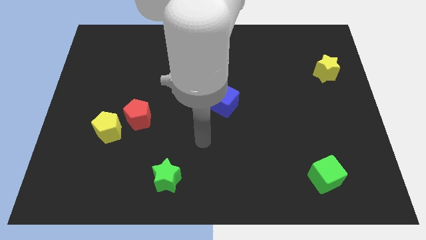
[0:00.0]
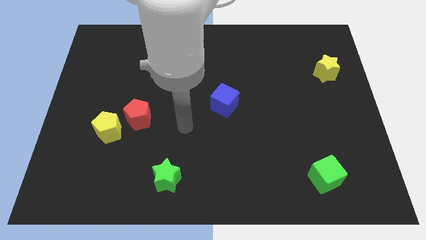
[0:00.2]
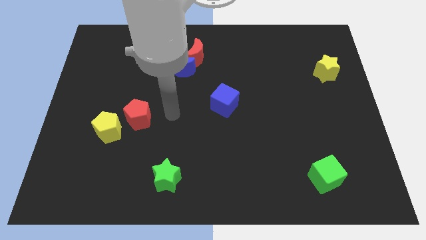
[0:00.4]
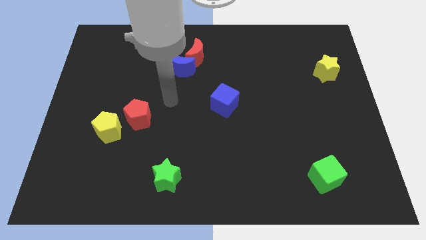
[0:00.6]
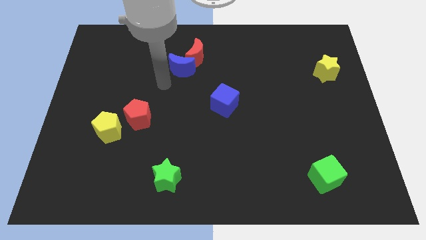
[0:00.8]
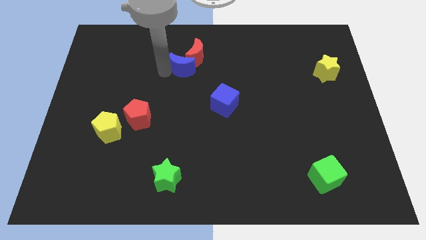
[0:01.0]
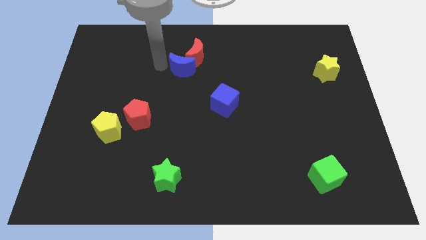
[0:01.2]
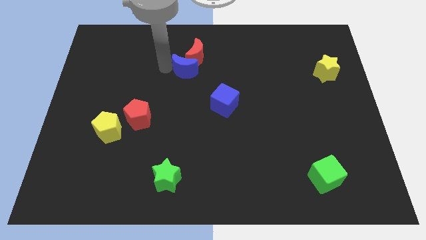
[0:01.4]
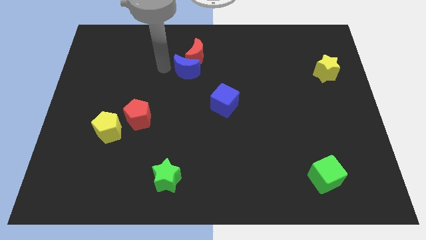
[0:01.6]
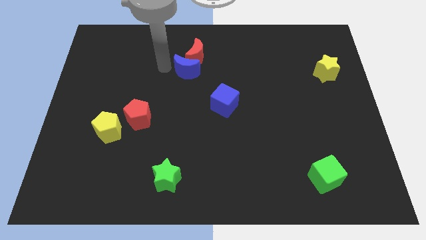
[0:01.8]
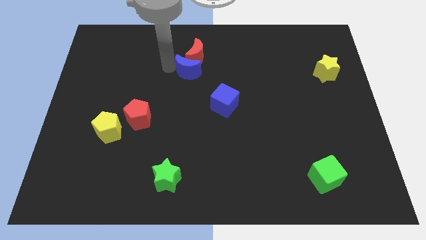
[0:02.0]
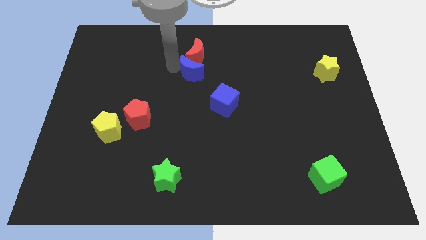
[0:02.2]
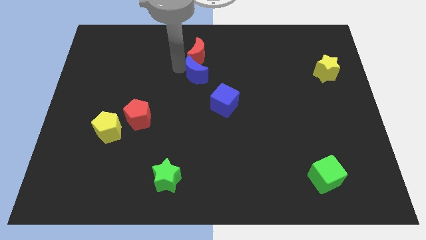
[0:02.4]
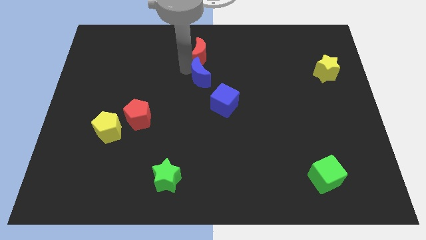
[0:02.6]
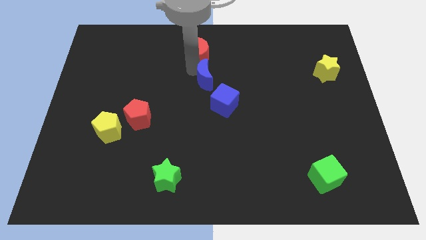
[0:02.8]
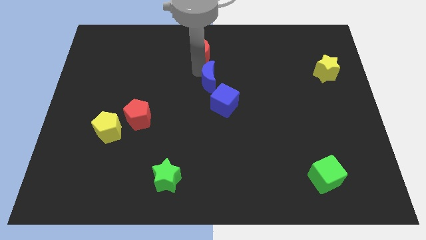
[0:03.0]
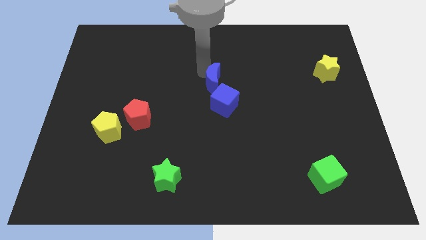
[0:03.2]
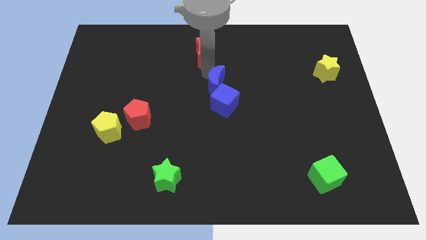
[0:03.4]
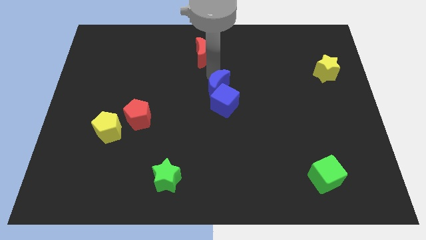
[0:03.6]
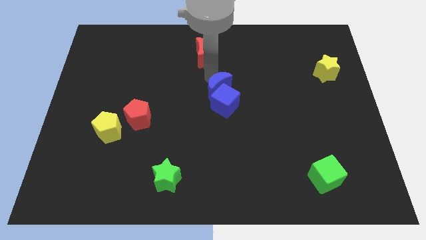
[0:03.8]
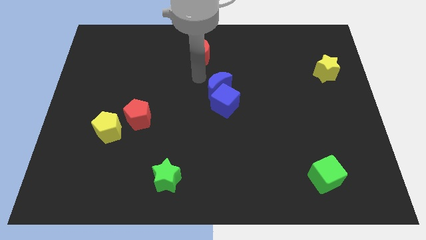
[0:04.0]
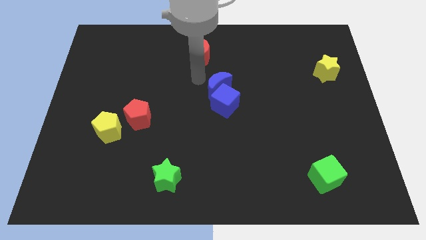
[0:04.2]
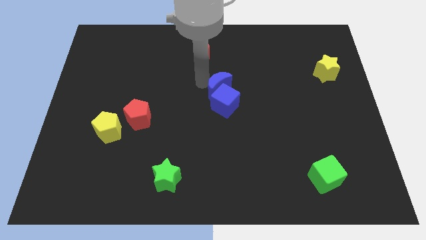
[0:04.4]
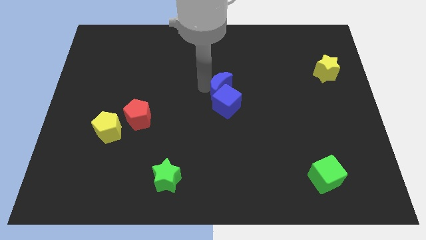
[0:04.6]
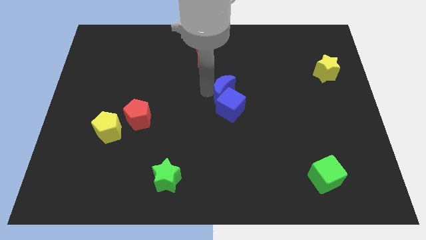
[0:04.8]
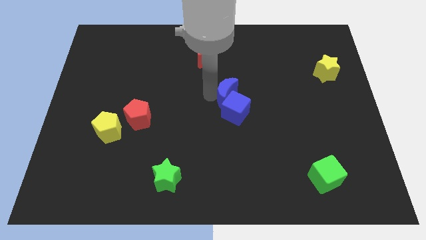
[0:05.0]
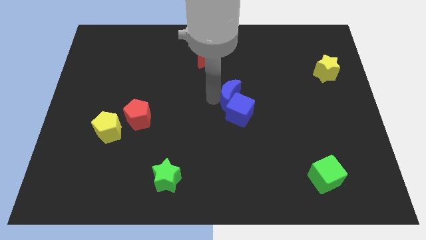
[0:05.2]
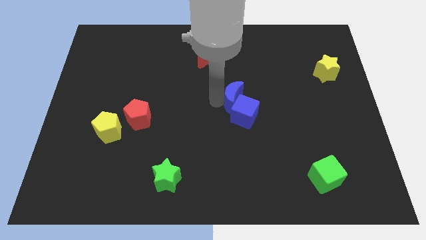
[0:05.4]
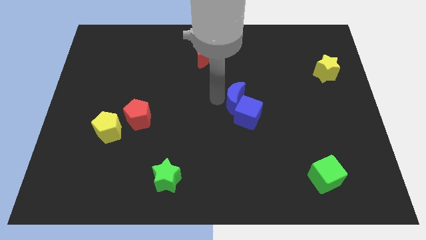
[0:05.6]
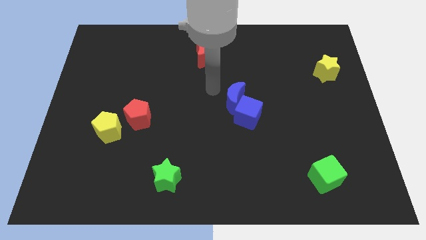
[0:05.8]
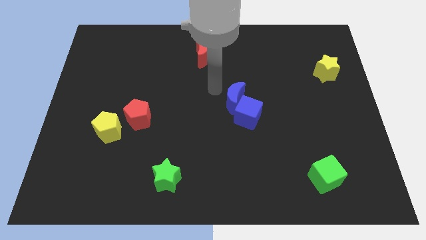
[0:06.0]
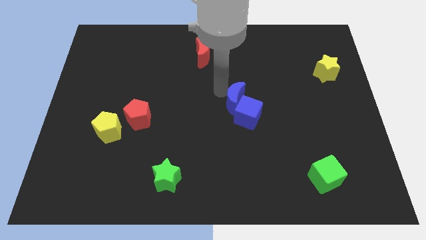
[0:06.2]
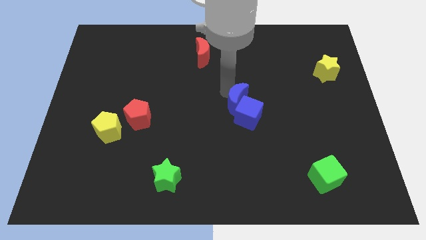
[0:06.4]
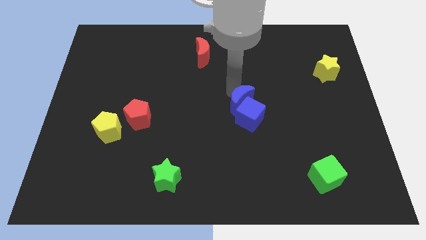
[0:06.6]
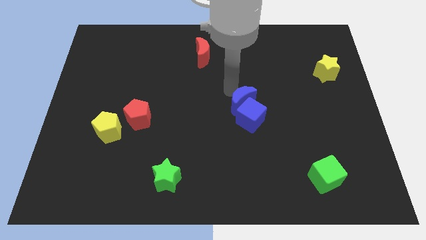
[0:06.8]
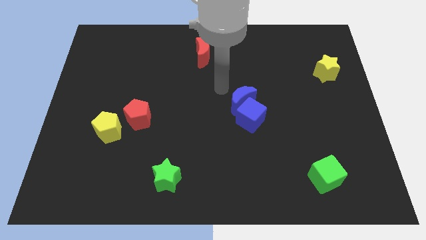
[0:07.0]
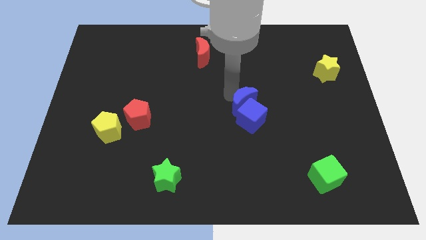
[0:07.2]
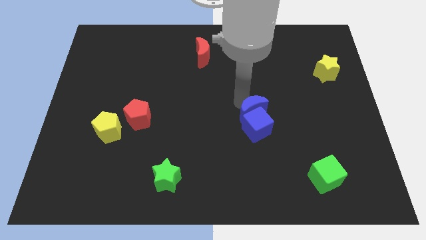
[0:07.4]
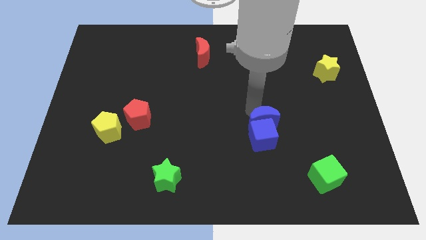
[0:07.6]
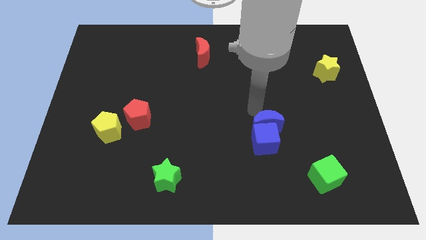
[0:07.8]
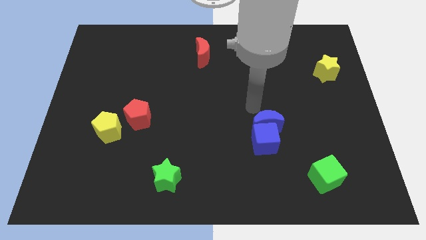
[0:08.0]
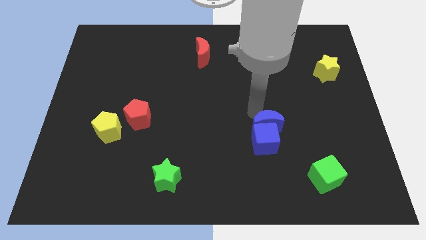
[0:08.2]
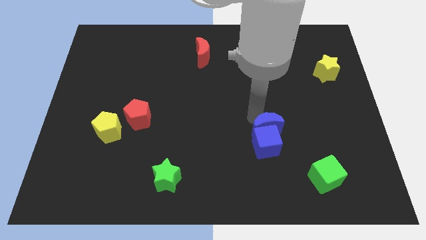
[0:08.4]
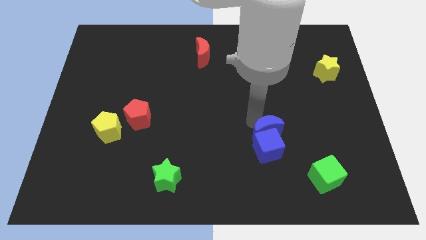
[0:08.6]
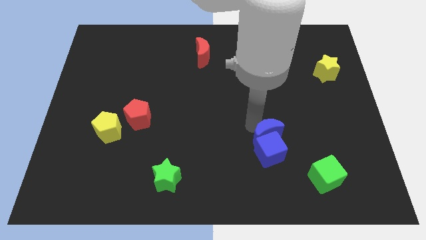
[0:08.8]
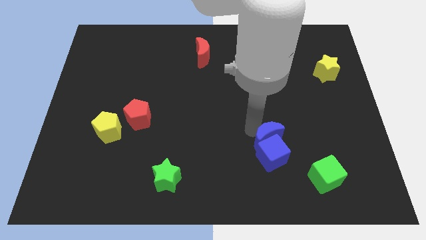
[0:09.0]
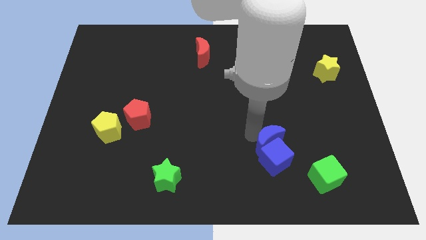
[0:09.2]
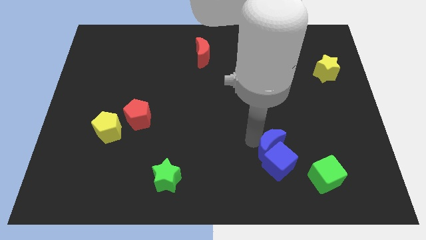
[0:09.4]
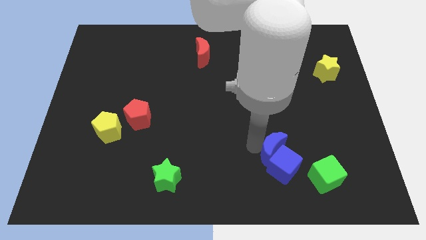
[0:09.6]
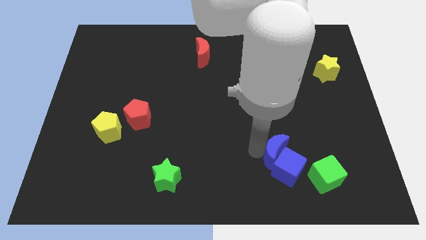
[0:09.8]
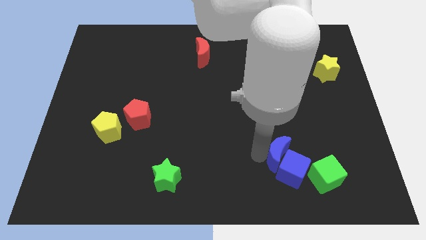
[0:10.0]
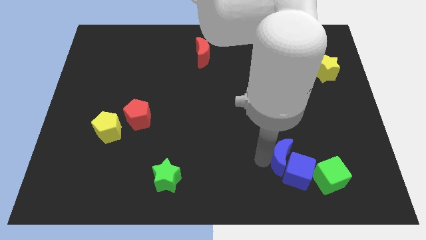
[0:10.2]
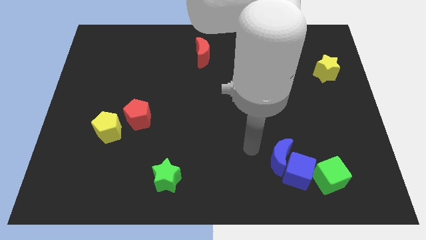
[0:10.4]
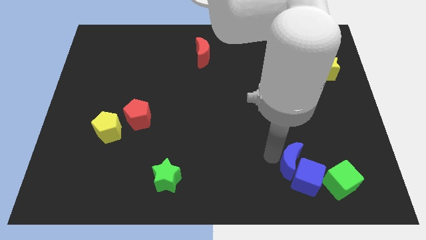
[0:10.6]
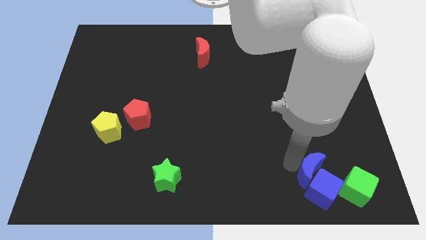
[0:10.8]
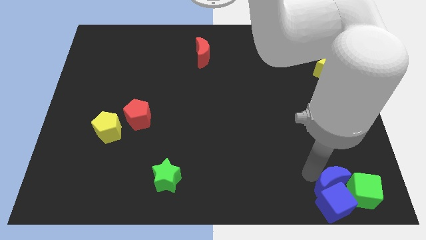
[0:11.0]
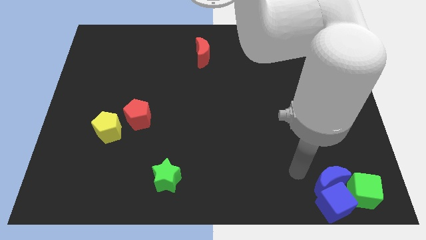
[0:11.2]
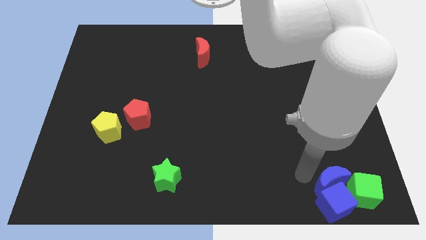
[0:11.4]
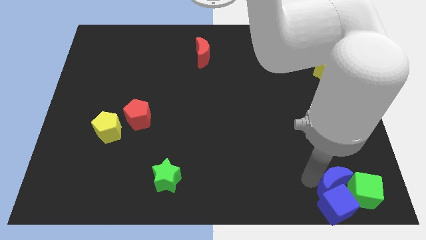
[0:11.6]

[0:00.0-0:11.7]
put the blue moon to the green cube

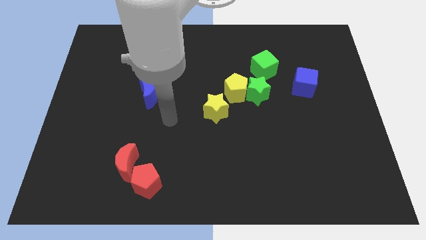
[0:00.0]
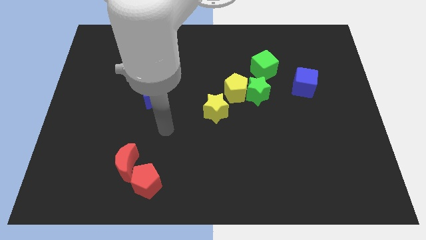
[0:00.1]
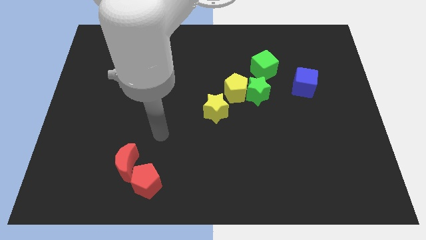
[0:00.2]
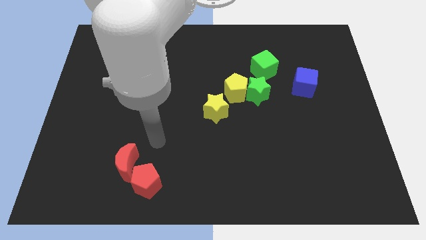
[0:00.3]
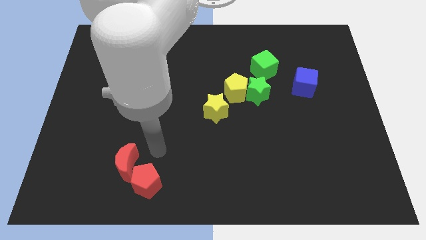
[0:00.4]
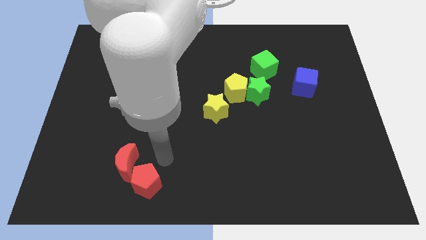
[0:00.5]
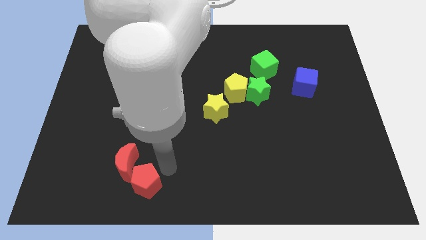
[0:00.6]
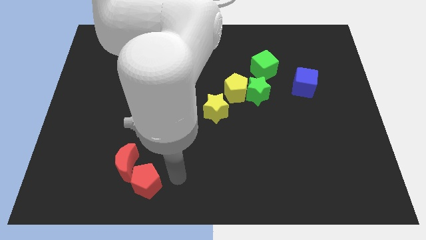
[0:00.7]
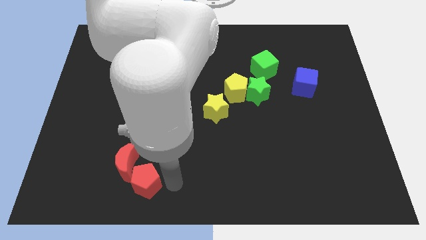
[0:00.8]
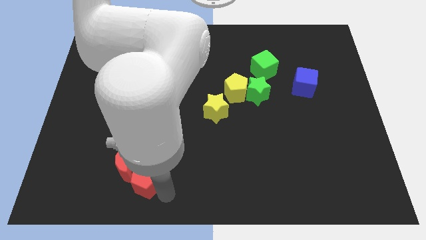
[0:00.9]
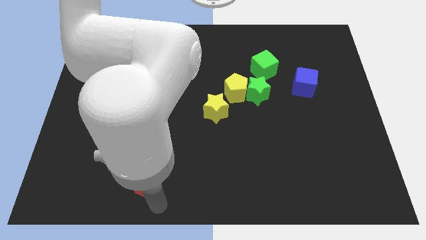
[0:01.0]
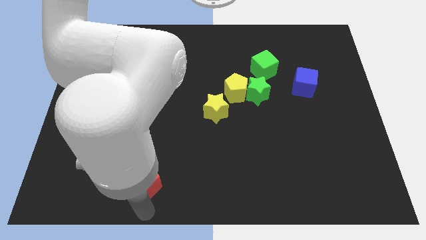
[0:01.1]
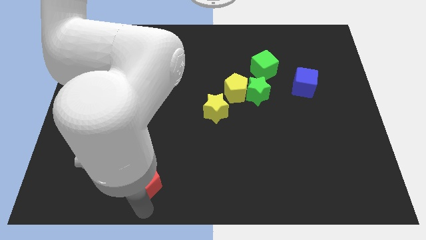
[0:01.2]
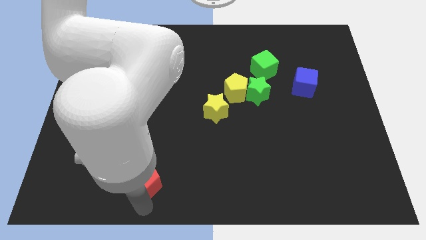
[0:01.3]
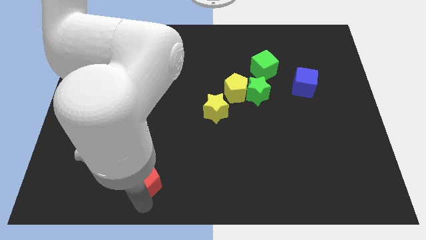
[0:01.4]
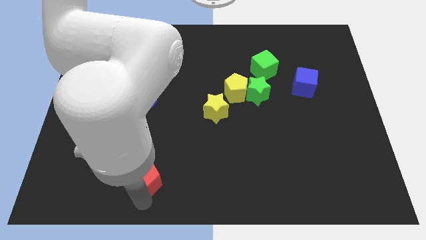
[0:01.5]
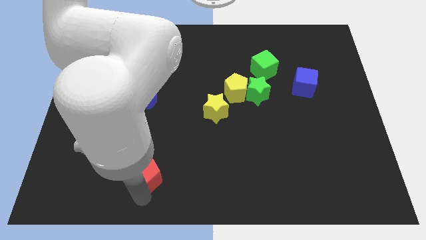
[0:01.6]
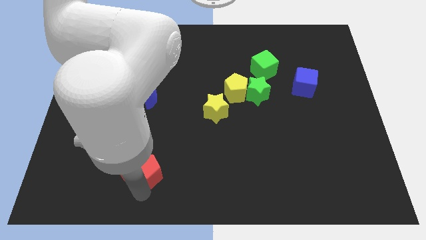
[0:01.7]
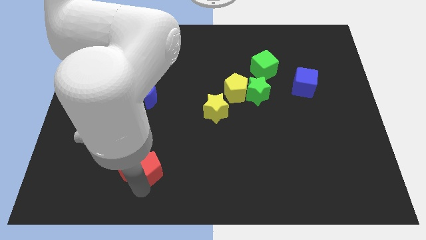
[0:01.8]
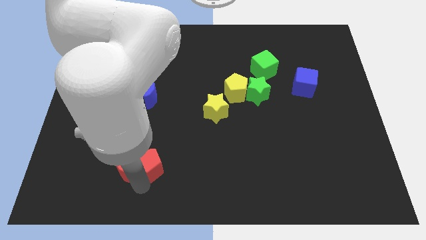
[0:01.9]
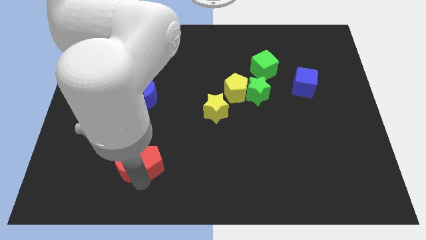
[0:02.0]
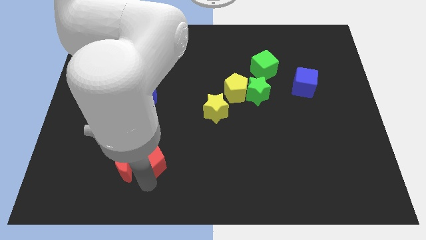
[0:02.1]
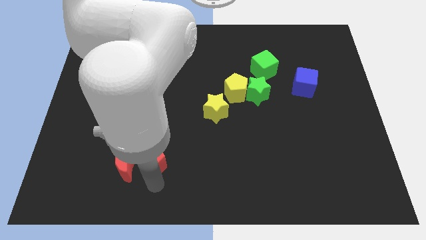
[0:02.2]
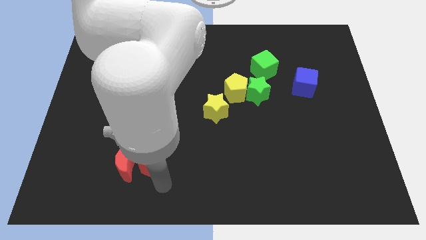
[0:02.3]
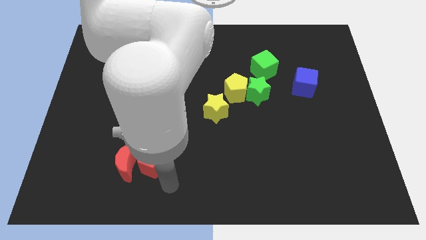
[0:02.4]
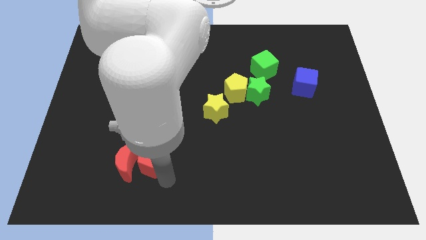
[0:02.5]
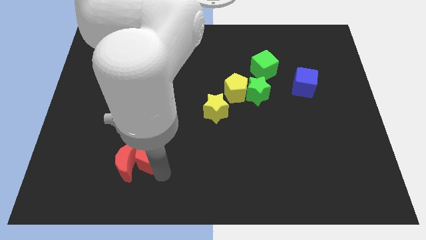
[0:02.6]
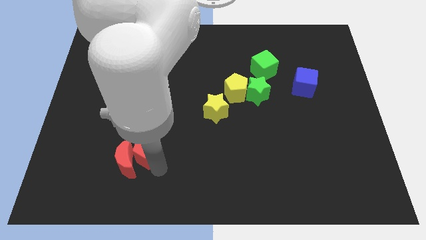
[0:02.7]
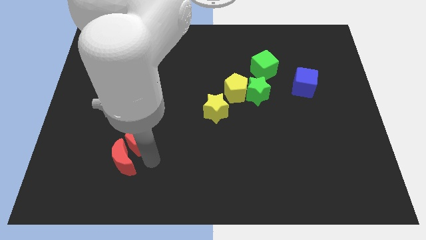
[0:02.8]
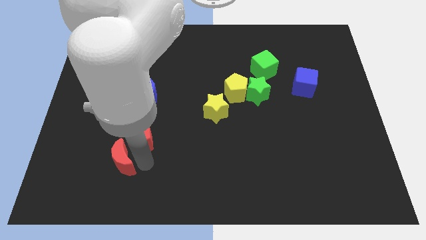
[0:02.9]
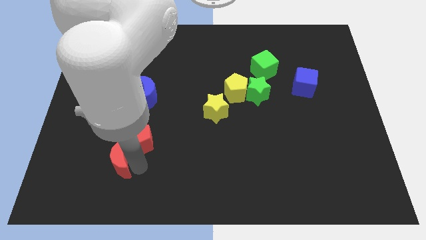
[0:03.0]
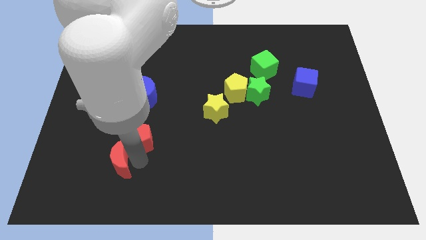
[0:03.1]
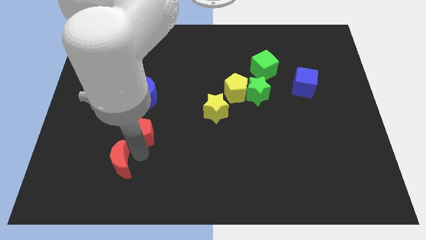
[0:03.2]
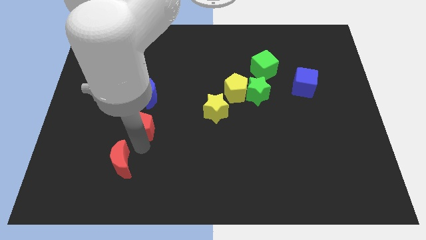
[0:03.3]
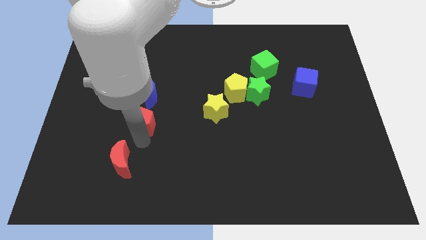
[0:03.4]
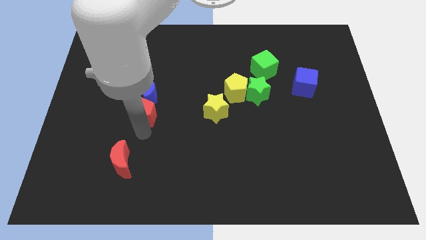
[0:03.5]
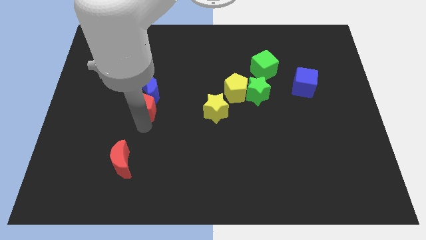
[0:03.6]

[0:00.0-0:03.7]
push the red pentagon to the blue moon
